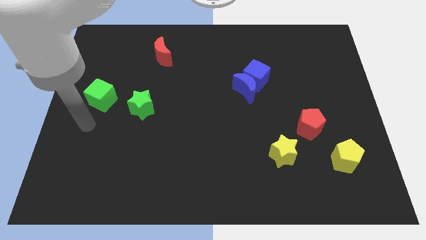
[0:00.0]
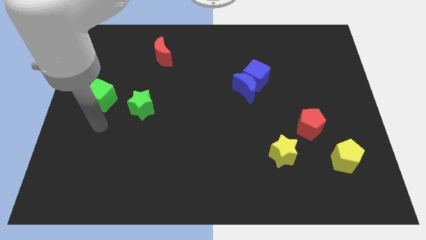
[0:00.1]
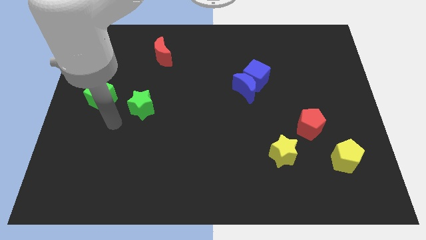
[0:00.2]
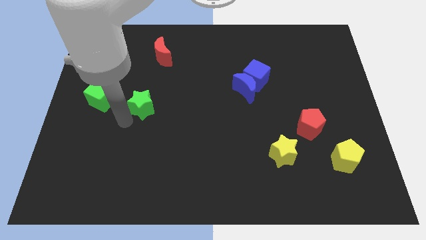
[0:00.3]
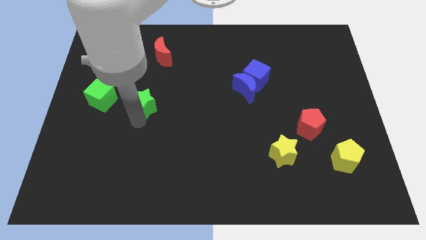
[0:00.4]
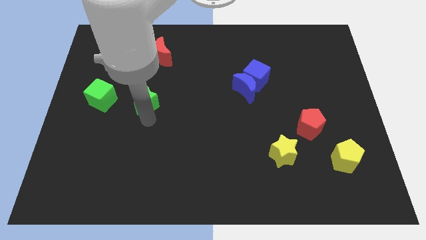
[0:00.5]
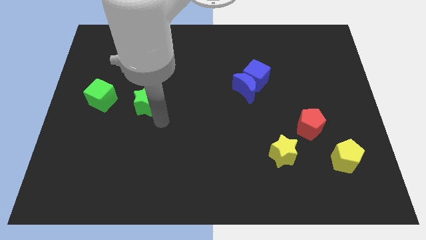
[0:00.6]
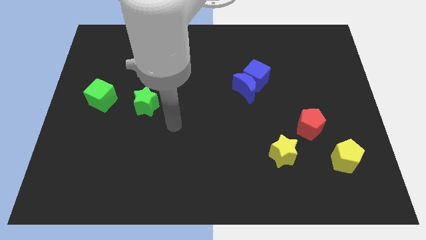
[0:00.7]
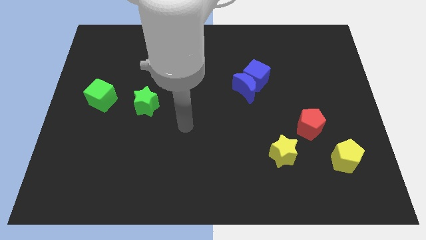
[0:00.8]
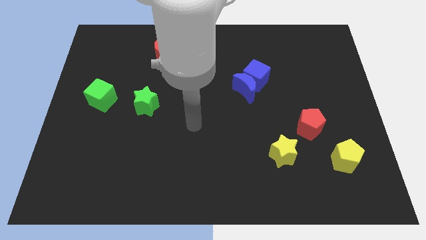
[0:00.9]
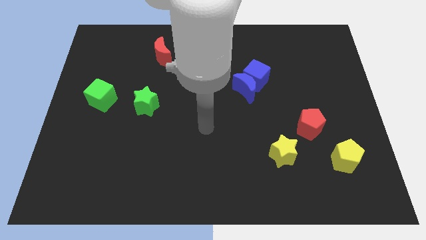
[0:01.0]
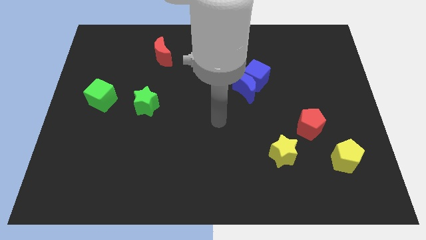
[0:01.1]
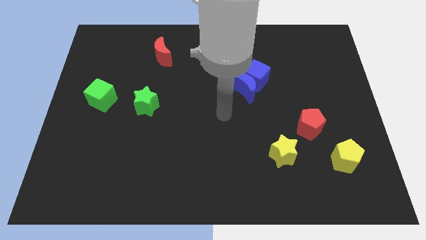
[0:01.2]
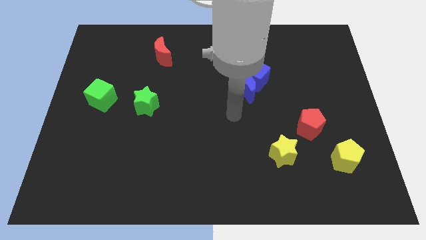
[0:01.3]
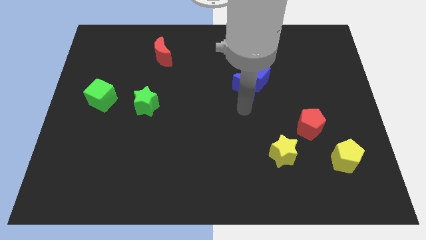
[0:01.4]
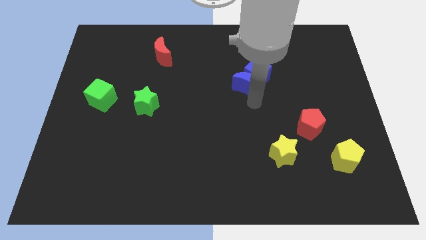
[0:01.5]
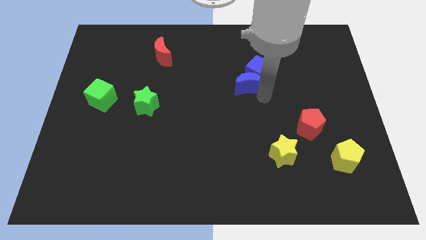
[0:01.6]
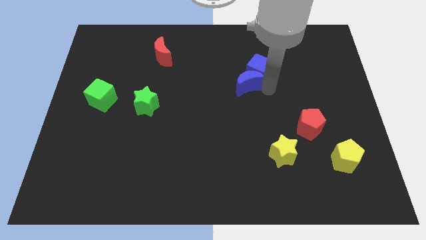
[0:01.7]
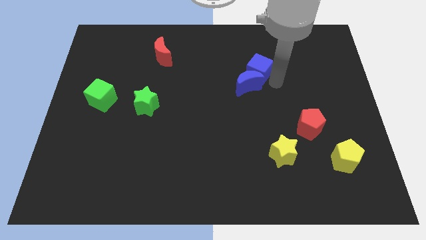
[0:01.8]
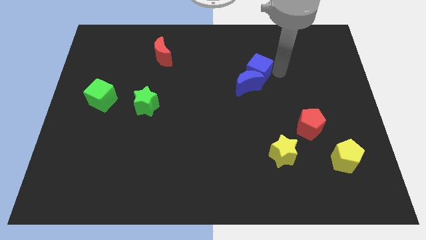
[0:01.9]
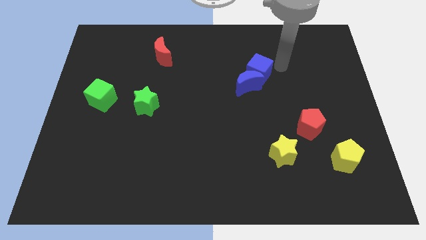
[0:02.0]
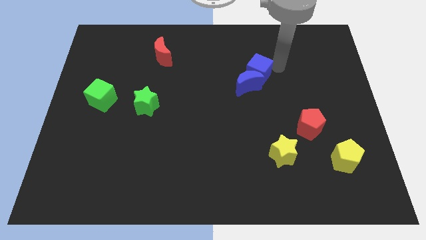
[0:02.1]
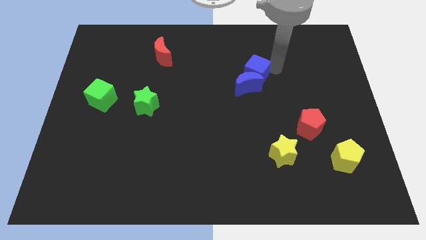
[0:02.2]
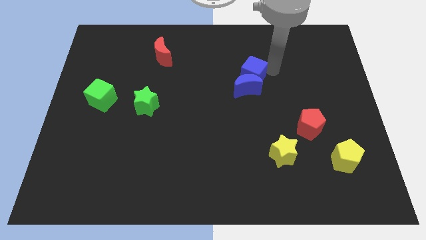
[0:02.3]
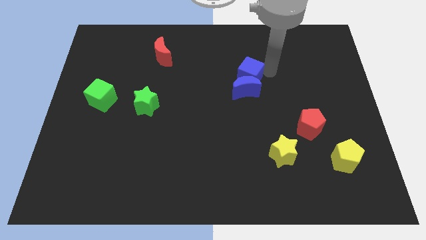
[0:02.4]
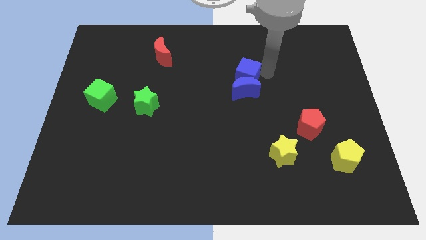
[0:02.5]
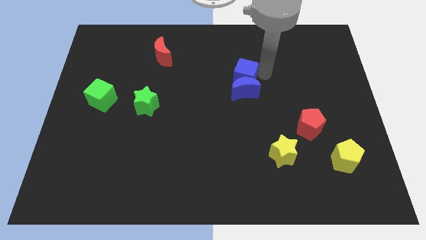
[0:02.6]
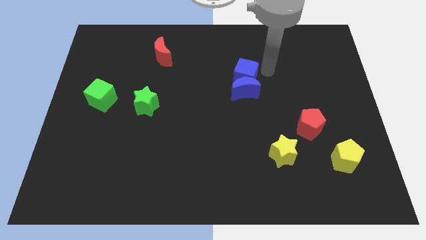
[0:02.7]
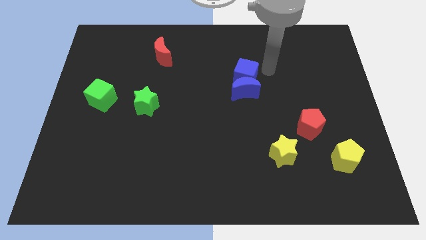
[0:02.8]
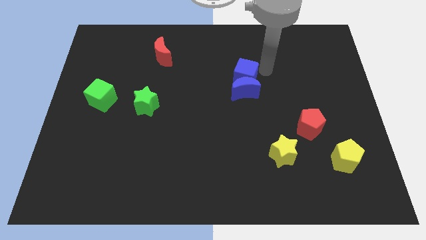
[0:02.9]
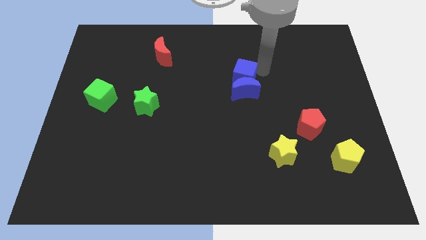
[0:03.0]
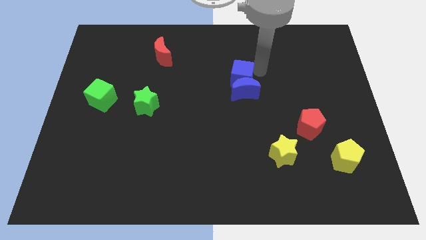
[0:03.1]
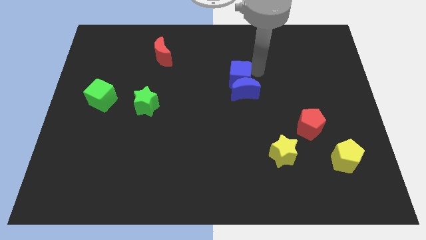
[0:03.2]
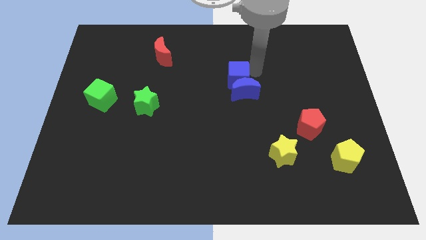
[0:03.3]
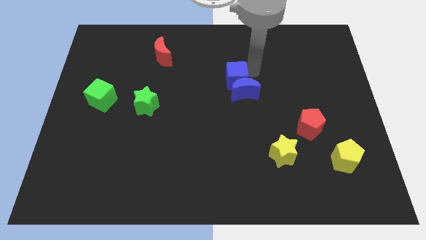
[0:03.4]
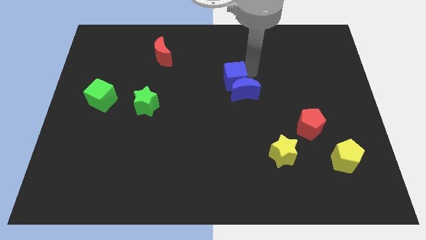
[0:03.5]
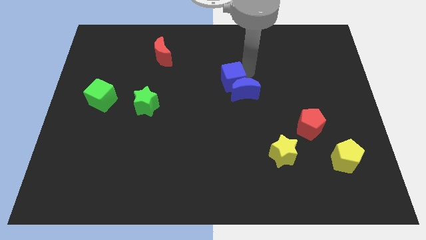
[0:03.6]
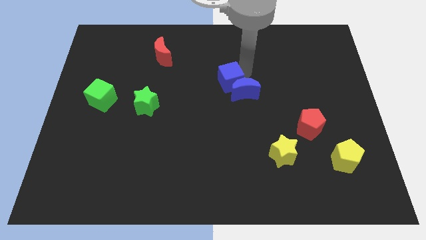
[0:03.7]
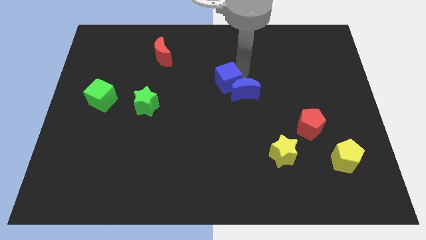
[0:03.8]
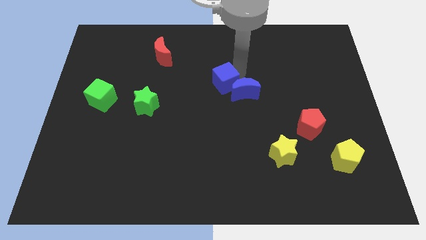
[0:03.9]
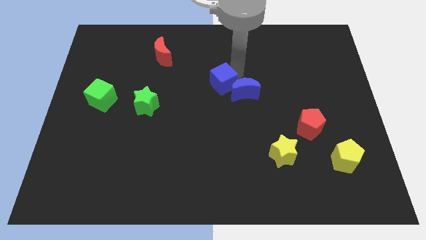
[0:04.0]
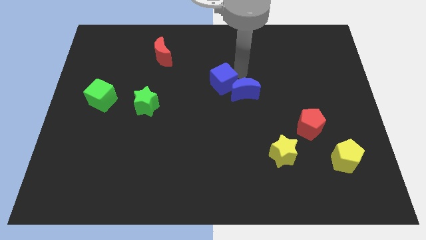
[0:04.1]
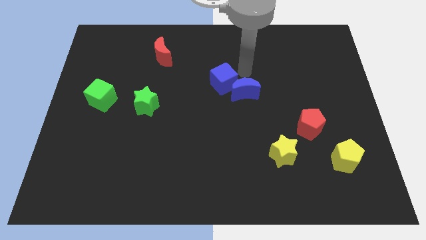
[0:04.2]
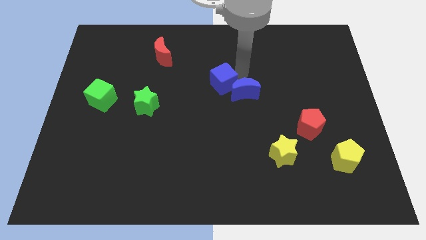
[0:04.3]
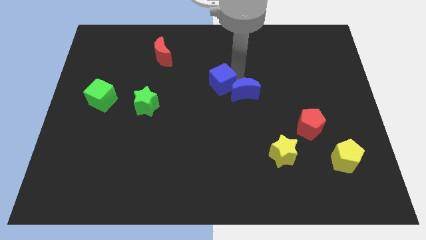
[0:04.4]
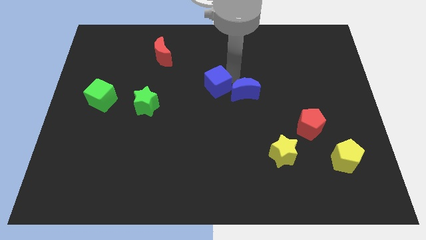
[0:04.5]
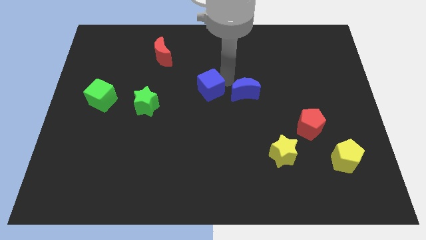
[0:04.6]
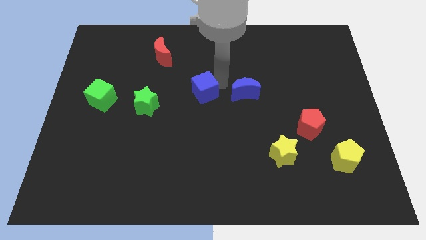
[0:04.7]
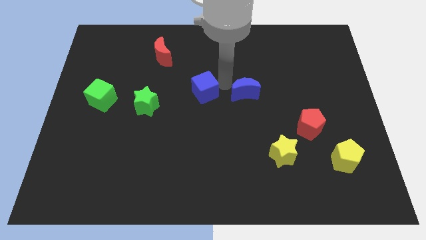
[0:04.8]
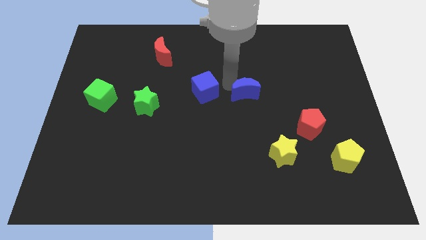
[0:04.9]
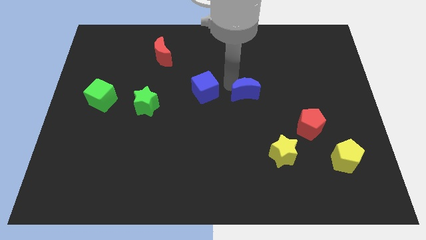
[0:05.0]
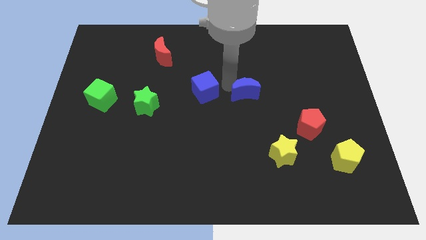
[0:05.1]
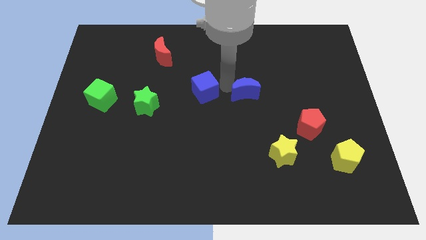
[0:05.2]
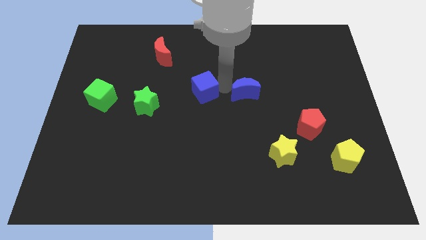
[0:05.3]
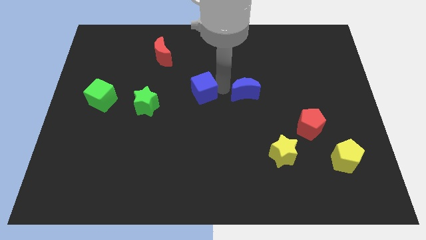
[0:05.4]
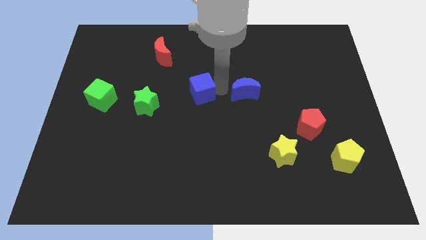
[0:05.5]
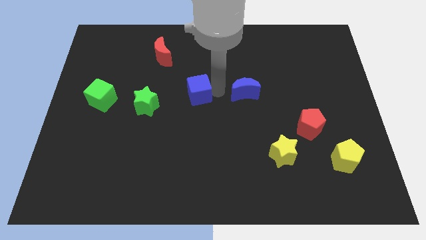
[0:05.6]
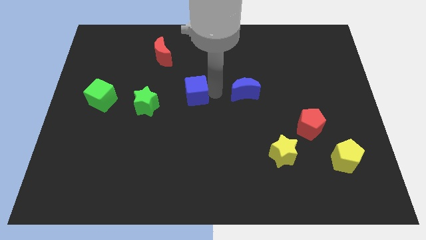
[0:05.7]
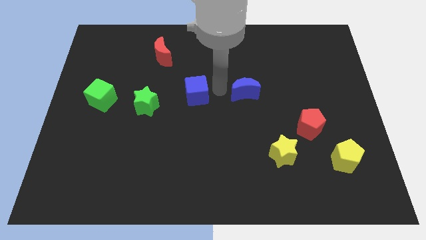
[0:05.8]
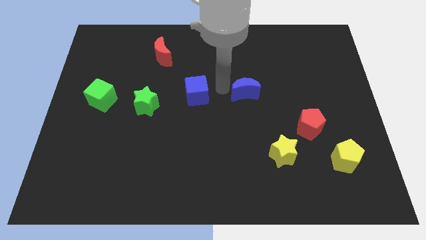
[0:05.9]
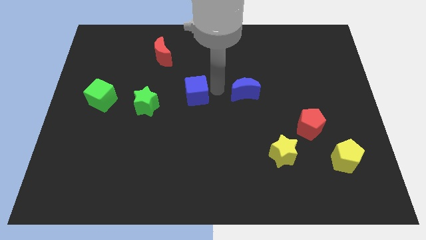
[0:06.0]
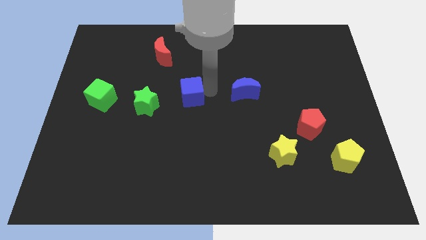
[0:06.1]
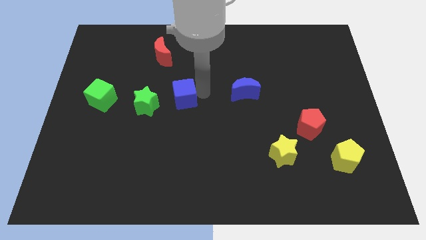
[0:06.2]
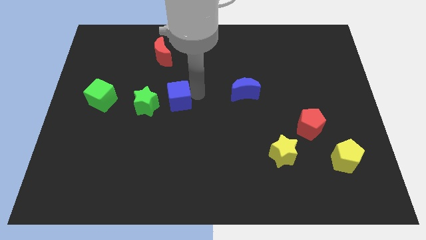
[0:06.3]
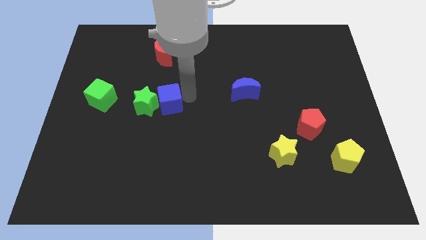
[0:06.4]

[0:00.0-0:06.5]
push the blue cube towards the green star

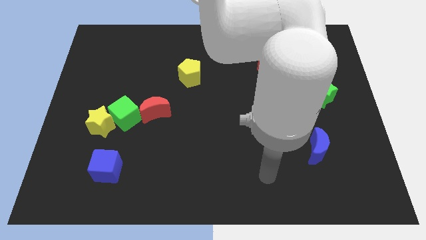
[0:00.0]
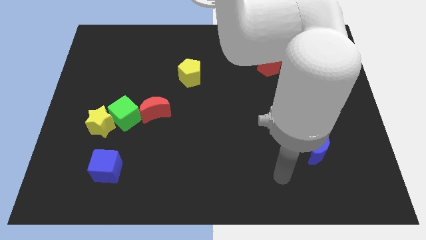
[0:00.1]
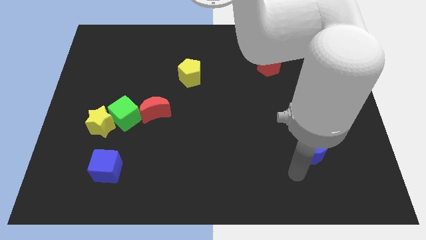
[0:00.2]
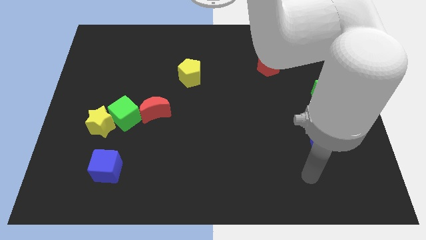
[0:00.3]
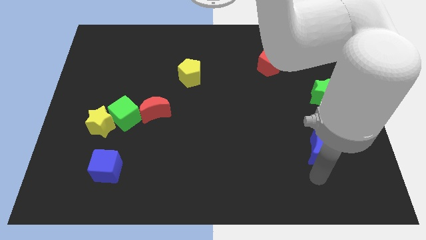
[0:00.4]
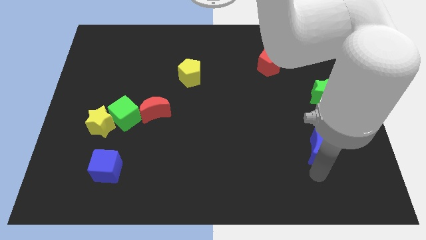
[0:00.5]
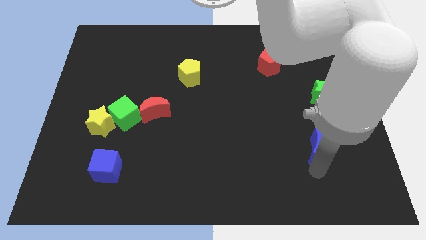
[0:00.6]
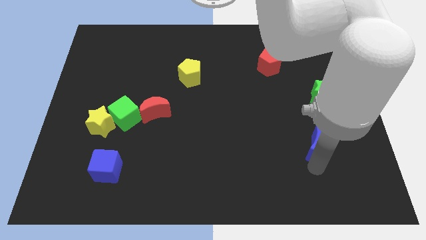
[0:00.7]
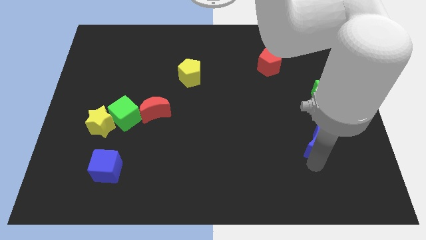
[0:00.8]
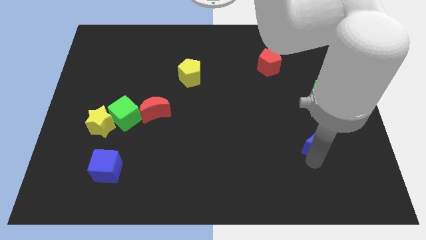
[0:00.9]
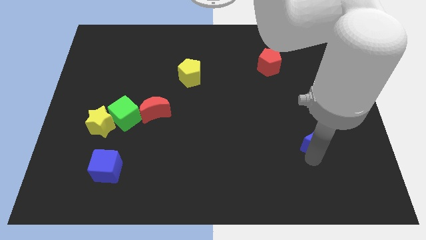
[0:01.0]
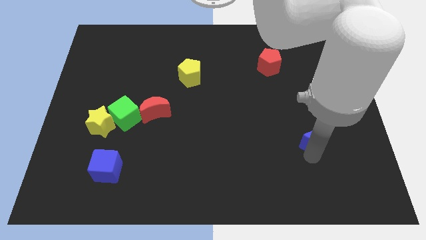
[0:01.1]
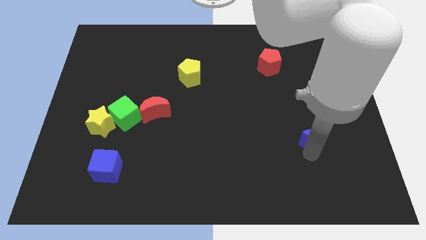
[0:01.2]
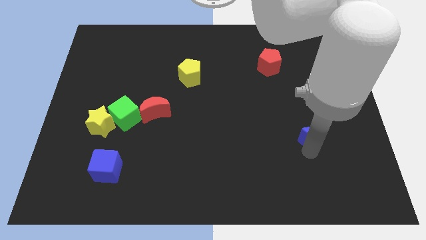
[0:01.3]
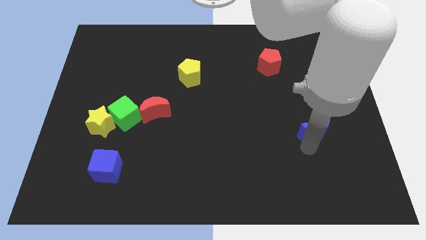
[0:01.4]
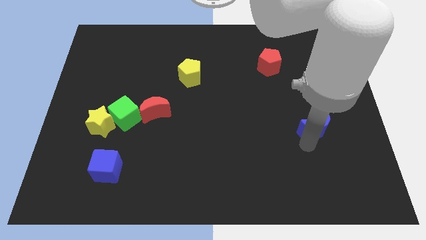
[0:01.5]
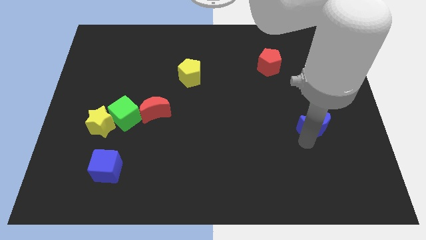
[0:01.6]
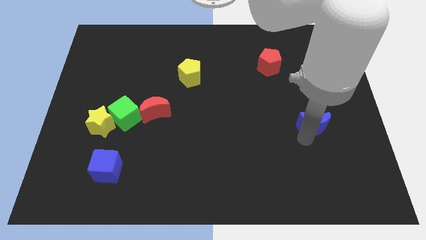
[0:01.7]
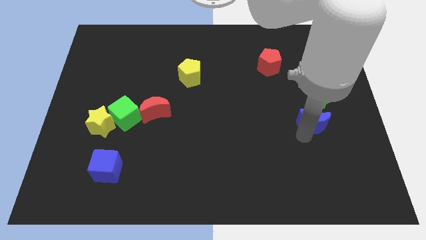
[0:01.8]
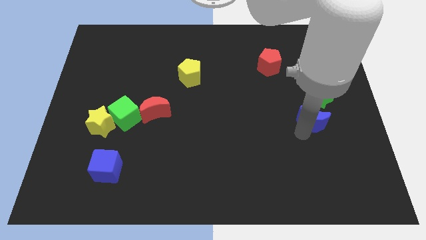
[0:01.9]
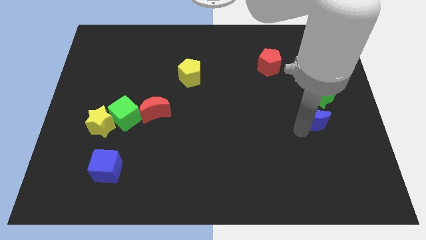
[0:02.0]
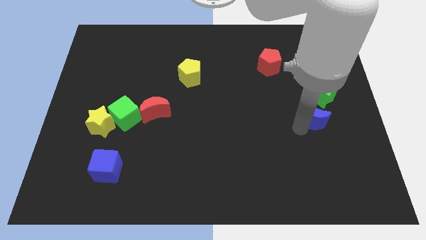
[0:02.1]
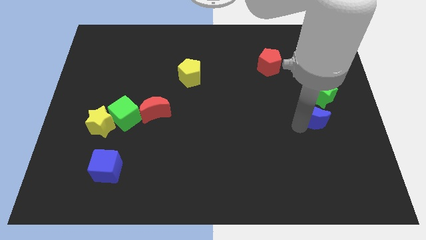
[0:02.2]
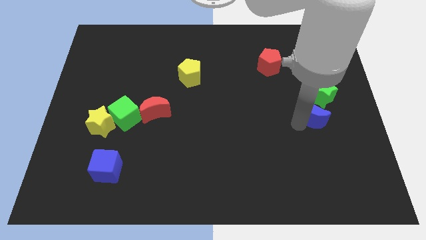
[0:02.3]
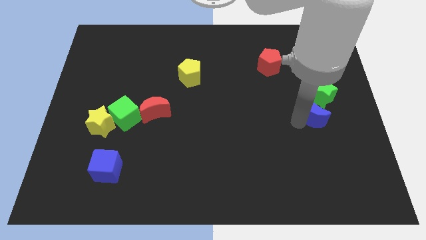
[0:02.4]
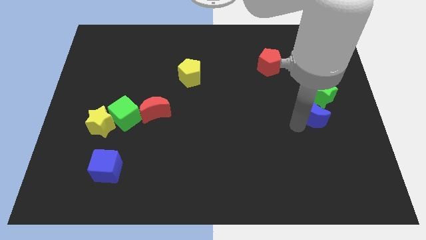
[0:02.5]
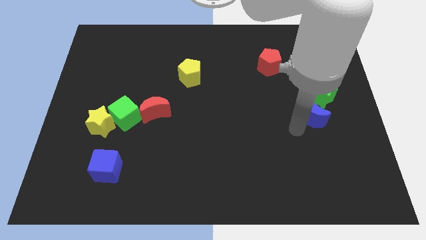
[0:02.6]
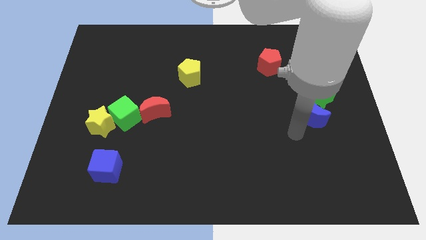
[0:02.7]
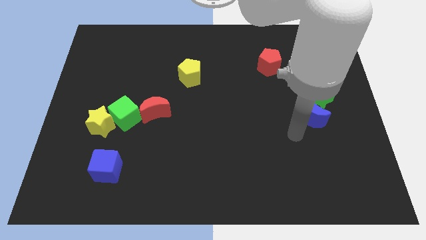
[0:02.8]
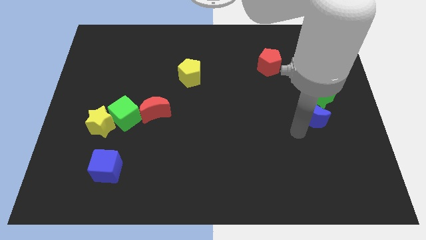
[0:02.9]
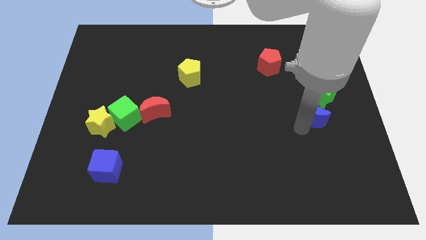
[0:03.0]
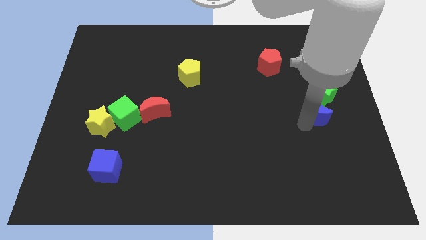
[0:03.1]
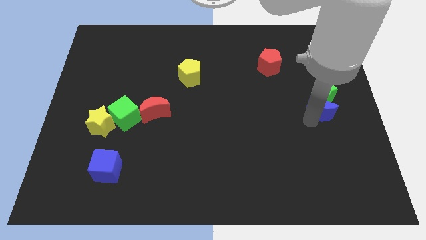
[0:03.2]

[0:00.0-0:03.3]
push the blue moon close to the green star
